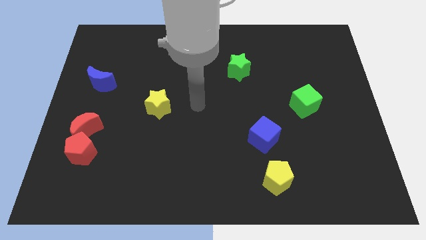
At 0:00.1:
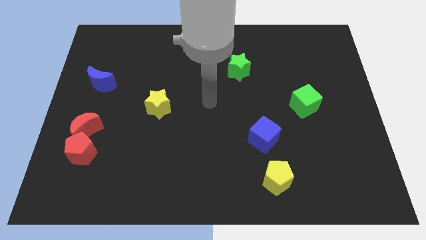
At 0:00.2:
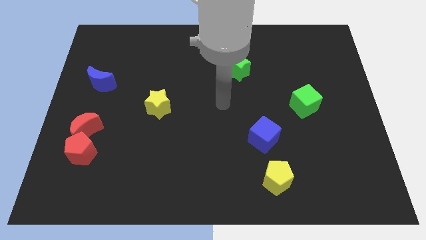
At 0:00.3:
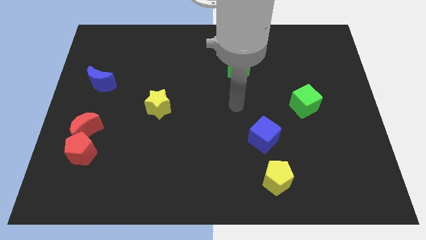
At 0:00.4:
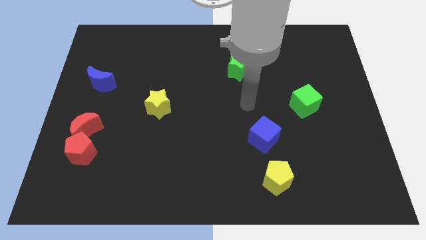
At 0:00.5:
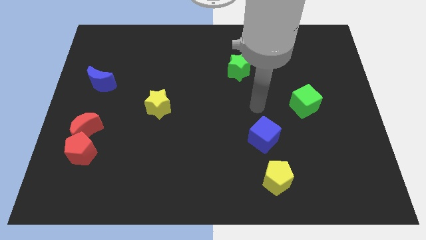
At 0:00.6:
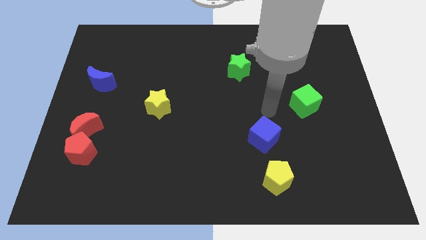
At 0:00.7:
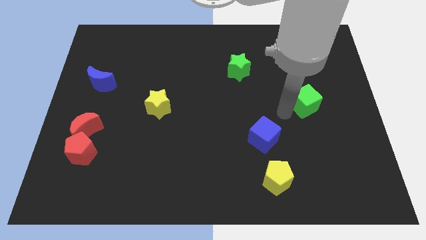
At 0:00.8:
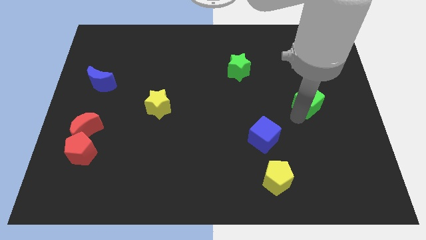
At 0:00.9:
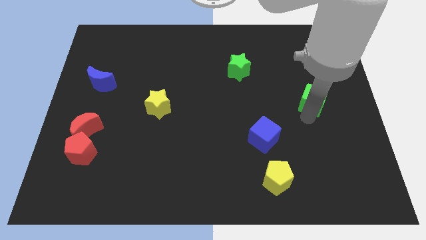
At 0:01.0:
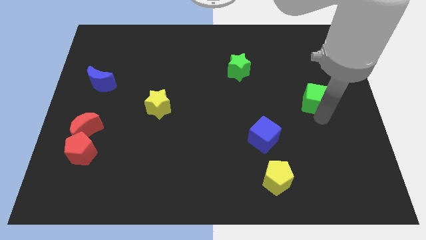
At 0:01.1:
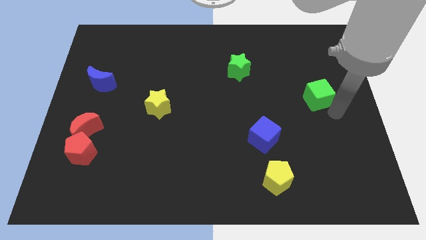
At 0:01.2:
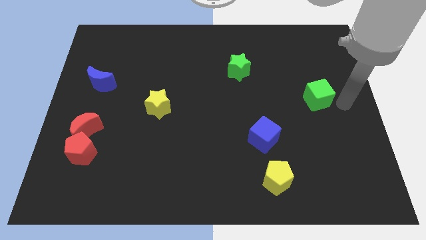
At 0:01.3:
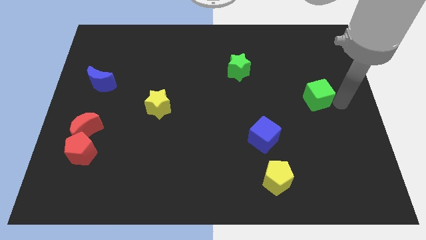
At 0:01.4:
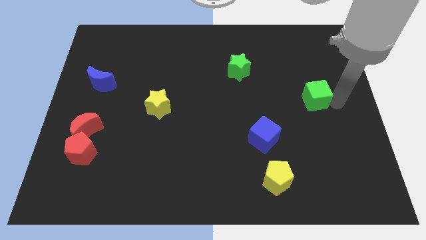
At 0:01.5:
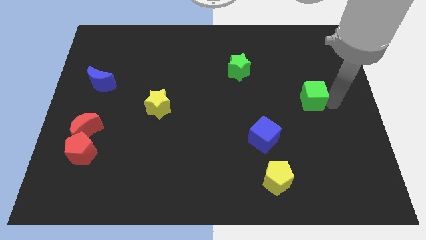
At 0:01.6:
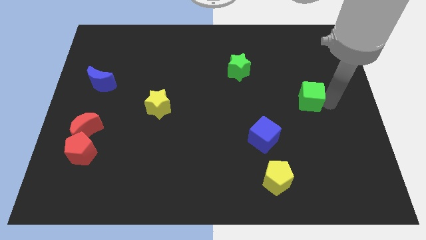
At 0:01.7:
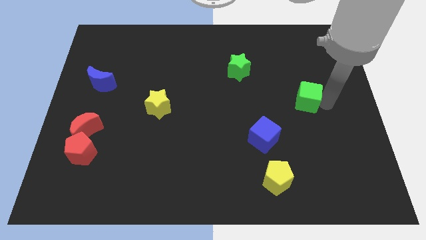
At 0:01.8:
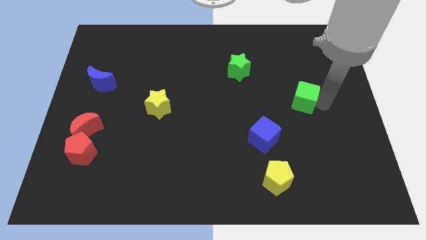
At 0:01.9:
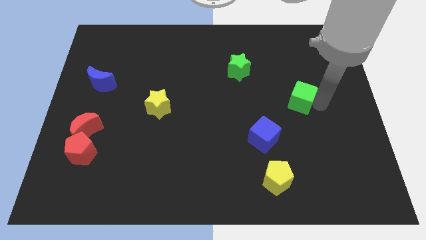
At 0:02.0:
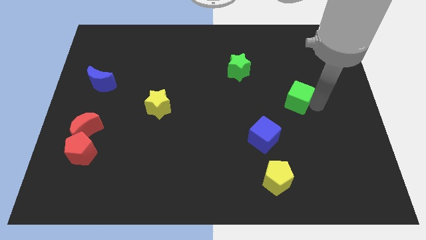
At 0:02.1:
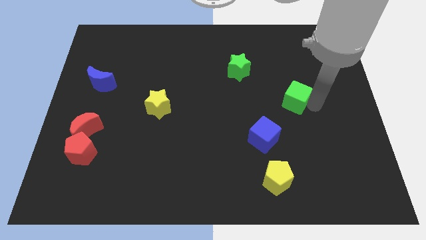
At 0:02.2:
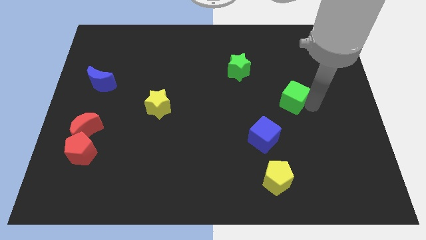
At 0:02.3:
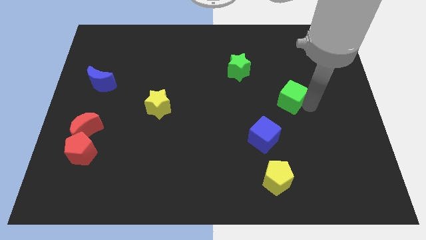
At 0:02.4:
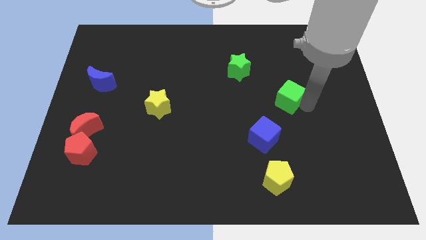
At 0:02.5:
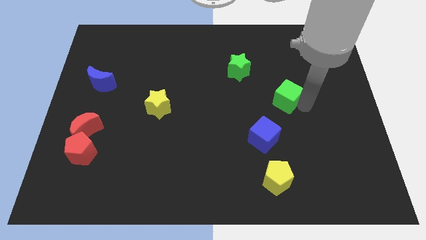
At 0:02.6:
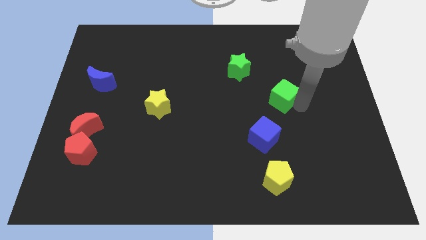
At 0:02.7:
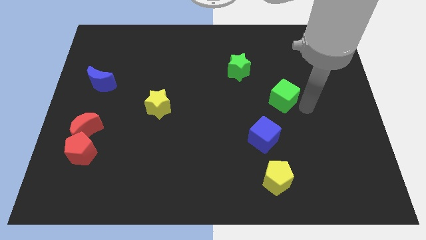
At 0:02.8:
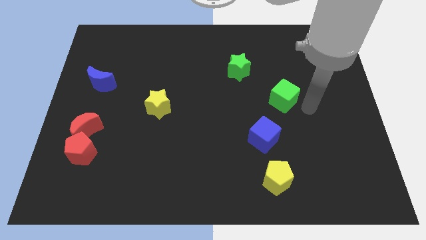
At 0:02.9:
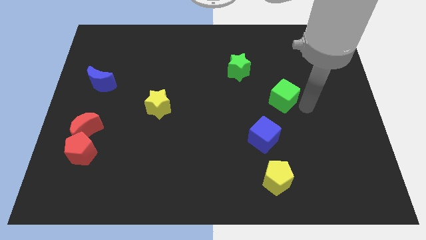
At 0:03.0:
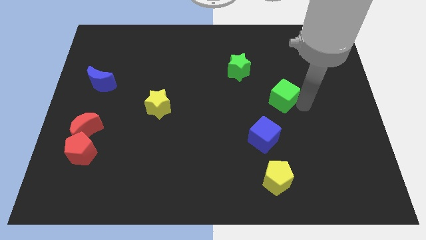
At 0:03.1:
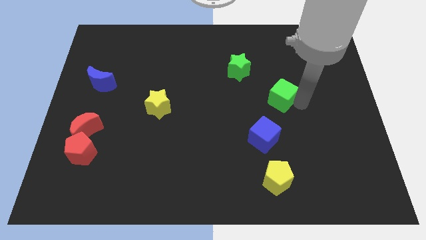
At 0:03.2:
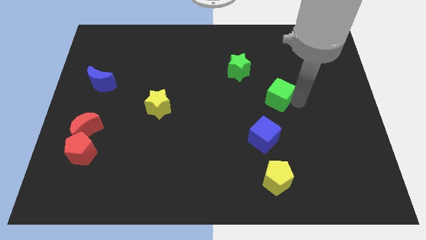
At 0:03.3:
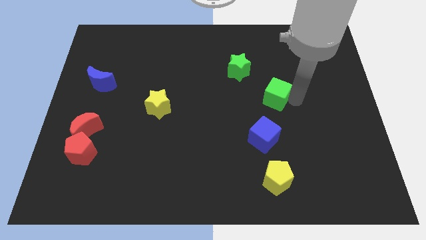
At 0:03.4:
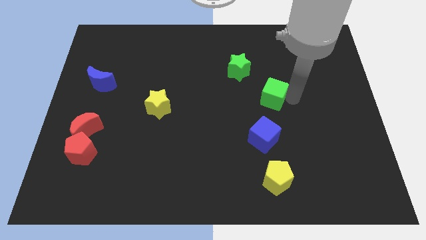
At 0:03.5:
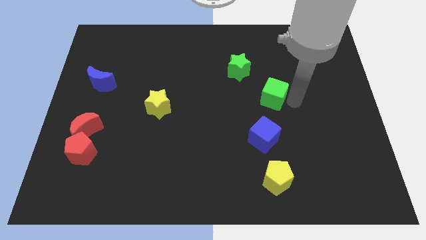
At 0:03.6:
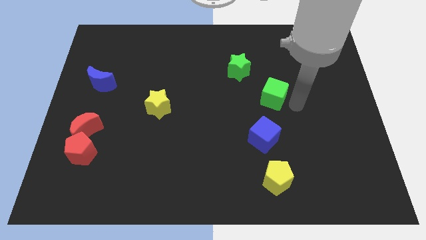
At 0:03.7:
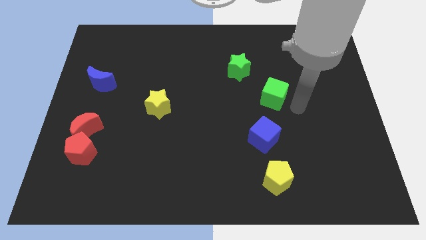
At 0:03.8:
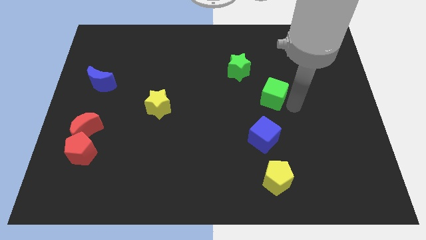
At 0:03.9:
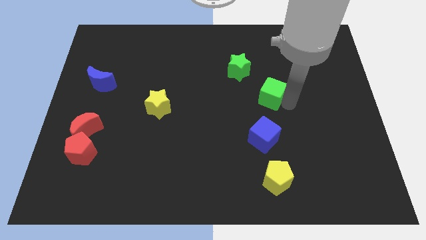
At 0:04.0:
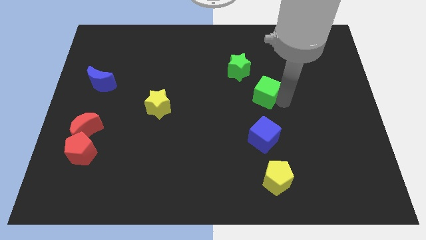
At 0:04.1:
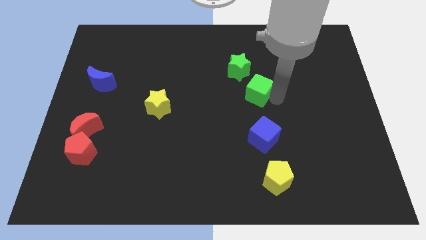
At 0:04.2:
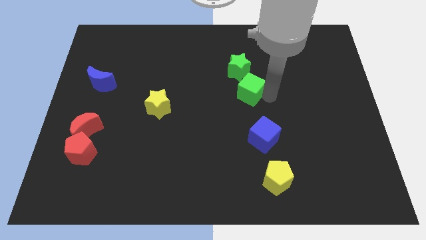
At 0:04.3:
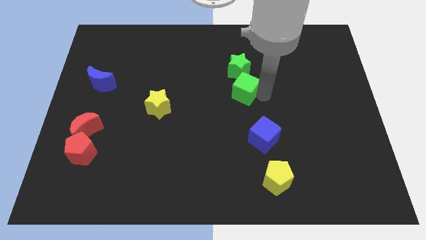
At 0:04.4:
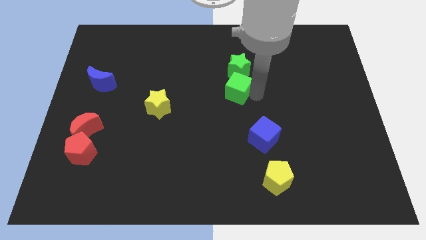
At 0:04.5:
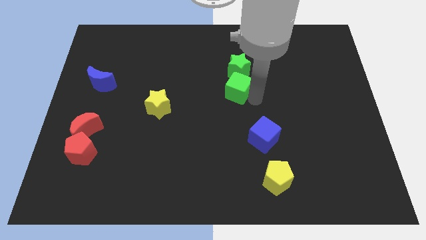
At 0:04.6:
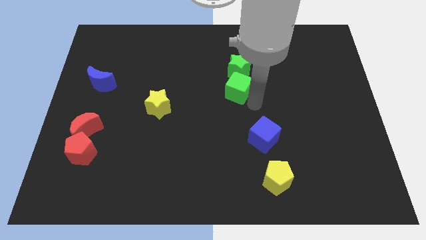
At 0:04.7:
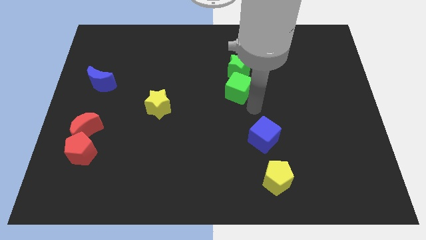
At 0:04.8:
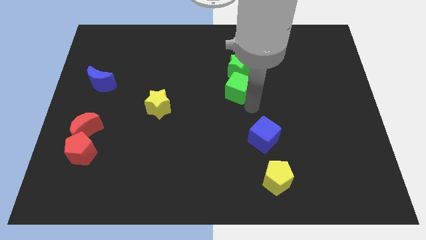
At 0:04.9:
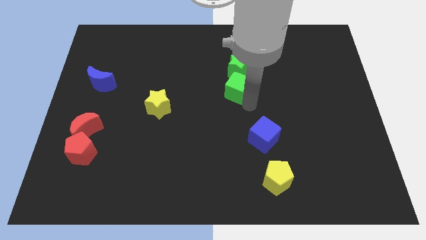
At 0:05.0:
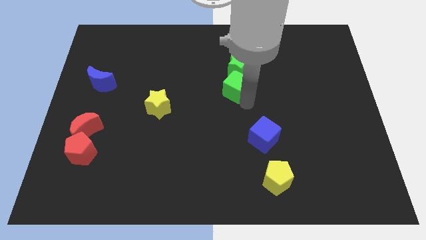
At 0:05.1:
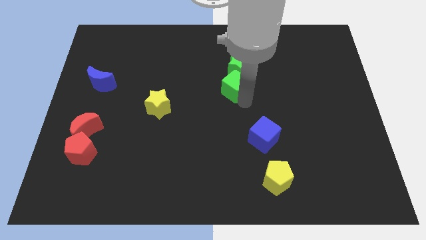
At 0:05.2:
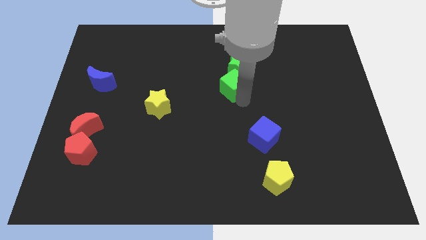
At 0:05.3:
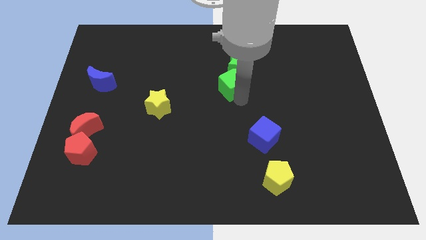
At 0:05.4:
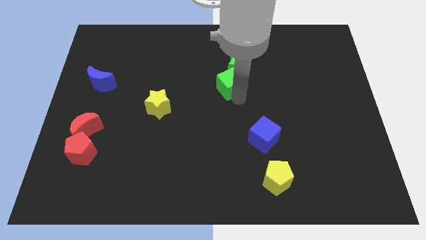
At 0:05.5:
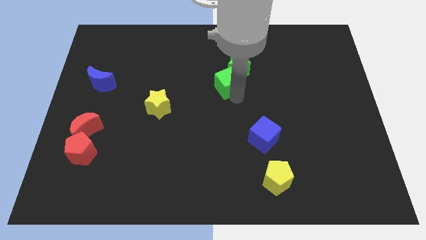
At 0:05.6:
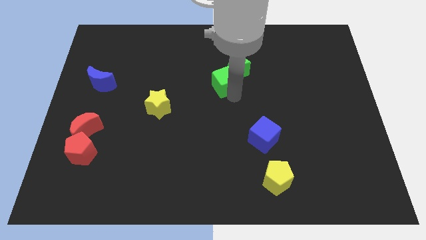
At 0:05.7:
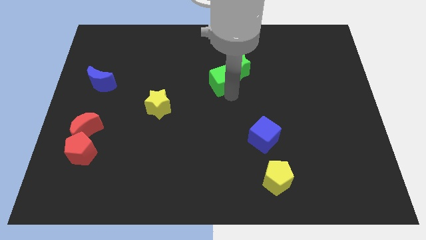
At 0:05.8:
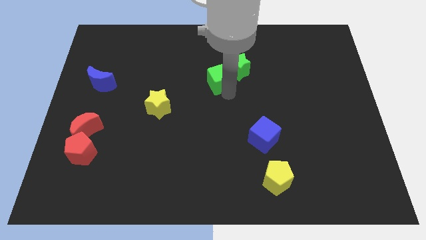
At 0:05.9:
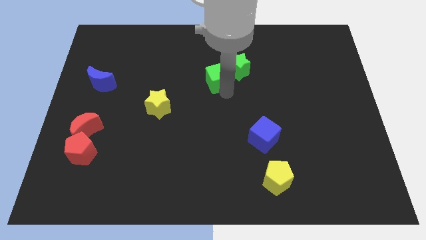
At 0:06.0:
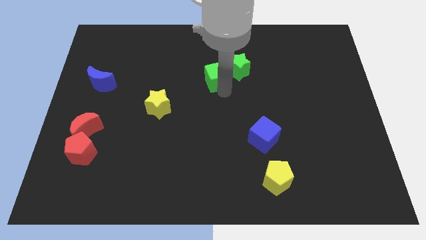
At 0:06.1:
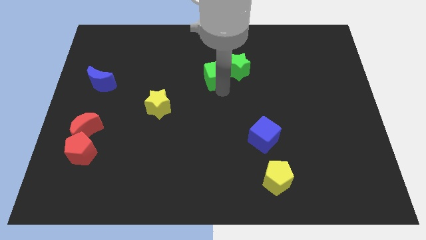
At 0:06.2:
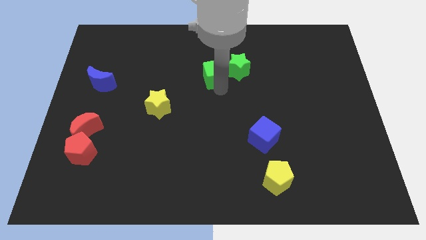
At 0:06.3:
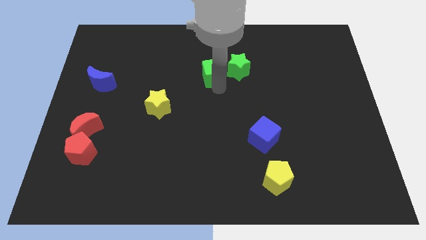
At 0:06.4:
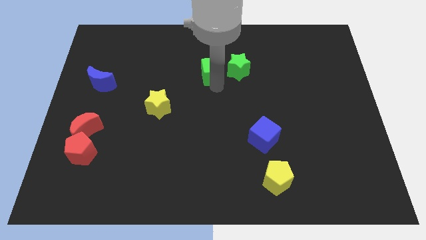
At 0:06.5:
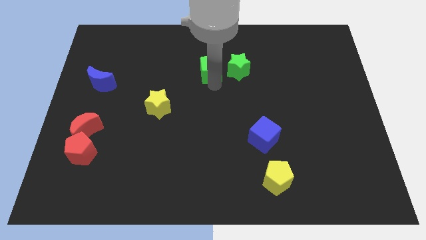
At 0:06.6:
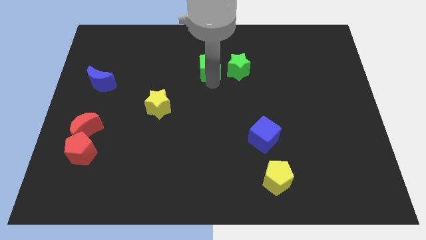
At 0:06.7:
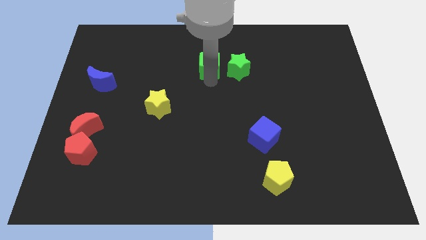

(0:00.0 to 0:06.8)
slide the green cube to the top left side of the green star

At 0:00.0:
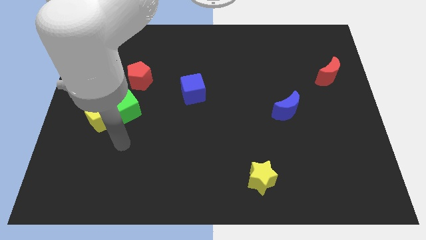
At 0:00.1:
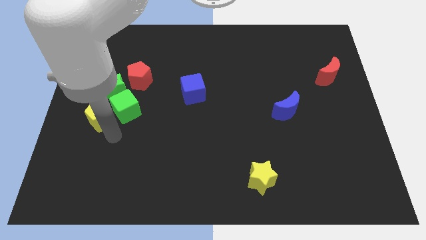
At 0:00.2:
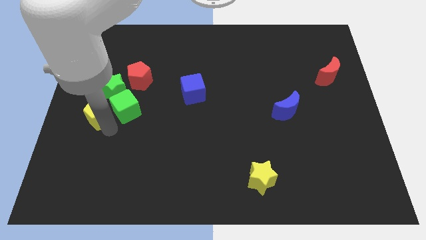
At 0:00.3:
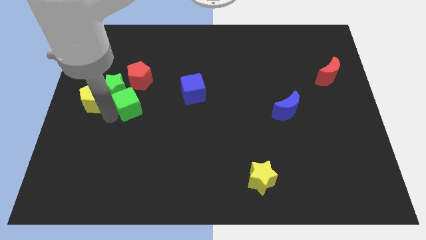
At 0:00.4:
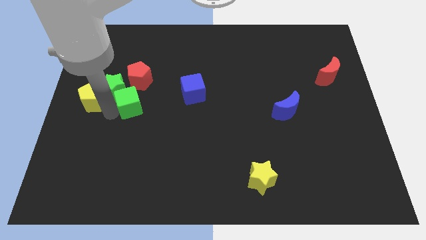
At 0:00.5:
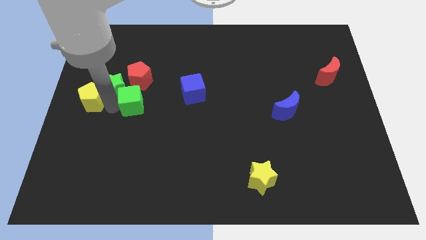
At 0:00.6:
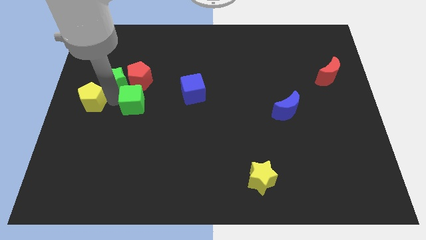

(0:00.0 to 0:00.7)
put the green star to the top left side of the red pentagon
